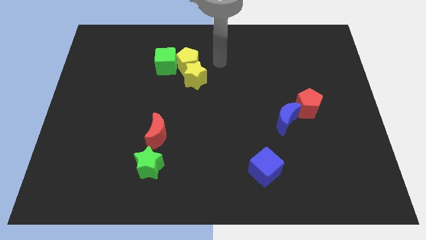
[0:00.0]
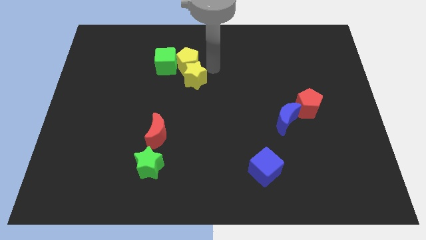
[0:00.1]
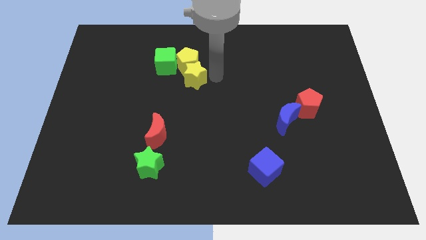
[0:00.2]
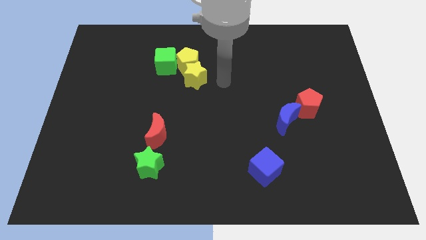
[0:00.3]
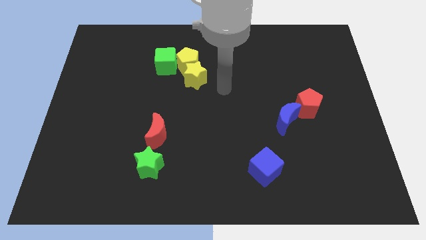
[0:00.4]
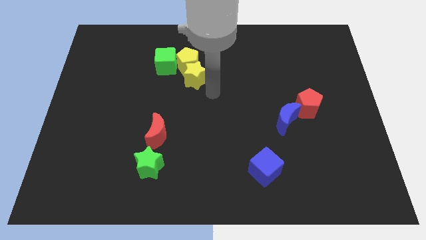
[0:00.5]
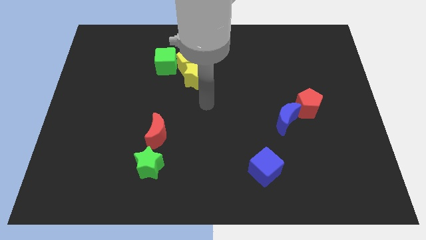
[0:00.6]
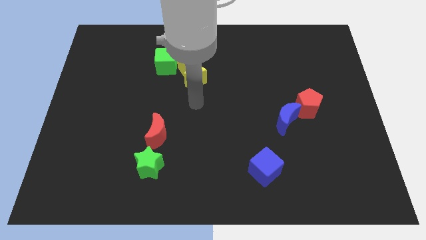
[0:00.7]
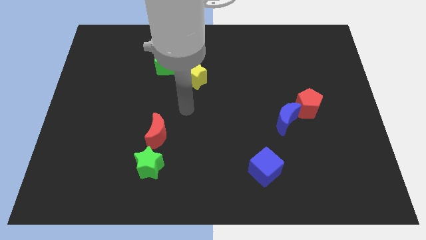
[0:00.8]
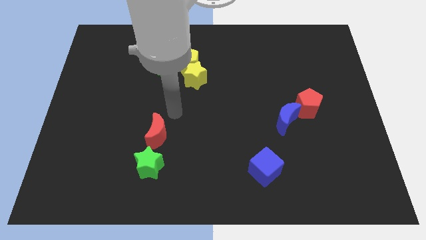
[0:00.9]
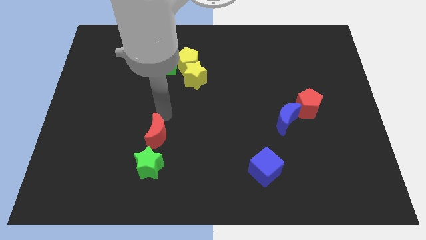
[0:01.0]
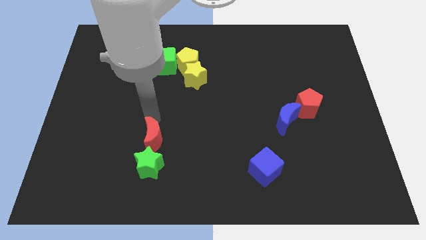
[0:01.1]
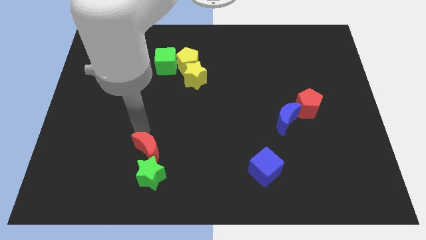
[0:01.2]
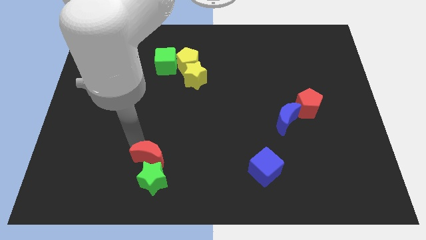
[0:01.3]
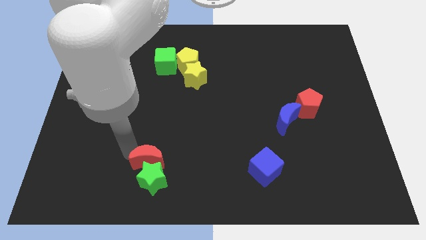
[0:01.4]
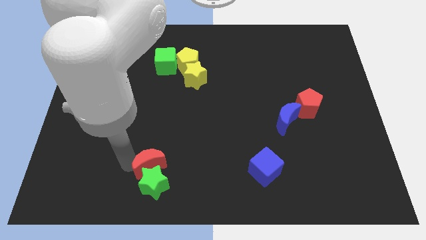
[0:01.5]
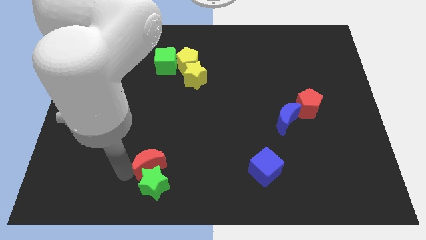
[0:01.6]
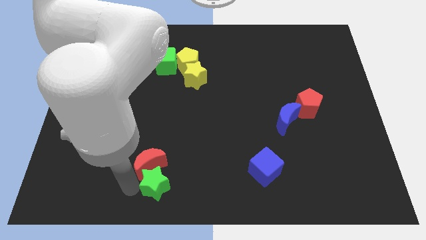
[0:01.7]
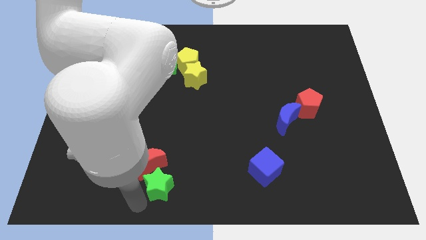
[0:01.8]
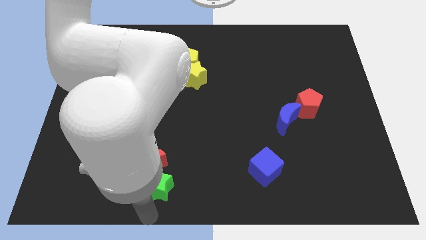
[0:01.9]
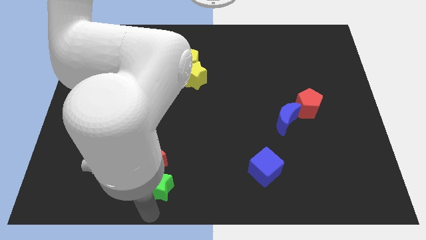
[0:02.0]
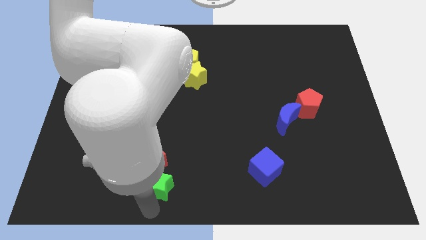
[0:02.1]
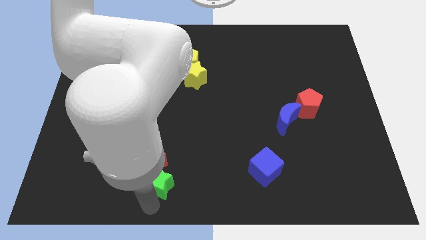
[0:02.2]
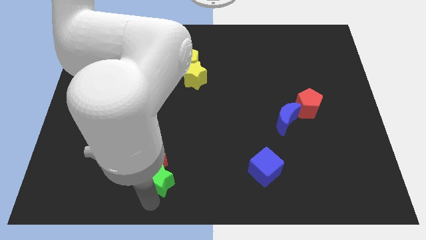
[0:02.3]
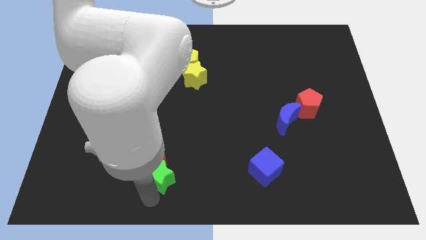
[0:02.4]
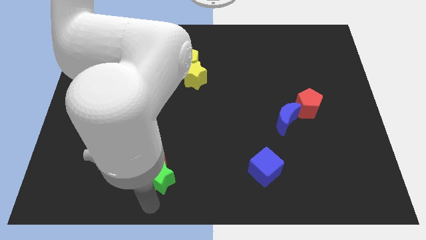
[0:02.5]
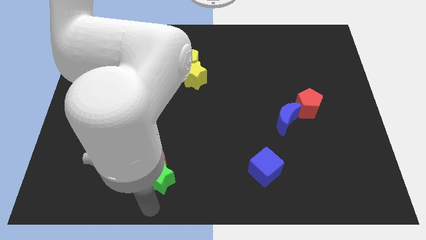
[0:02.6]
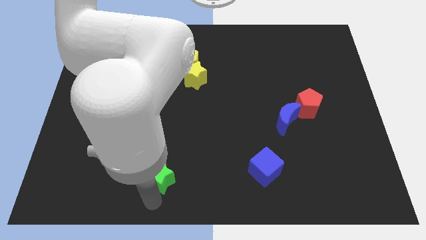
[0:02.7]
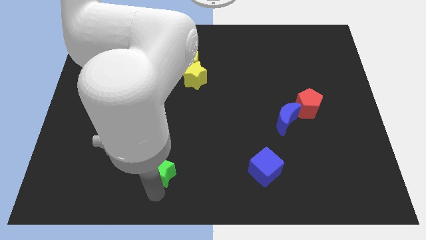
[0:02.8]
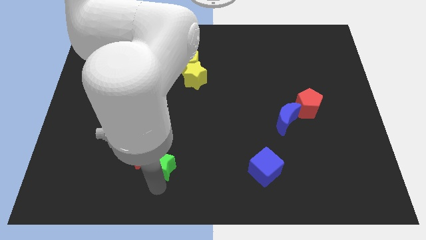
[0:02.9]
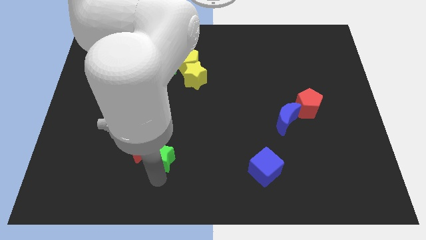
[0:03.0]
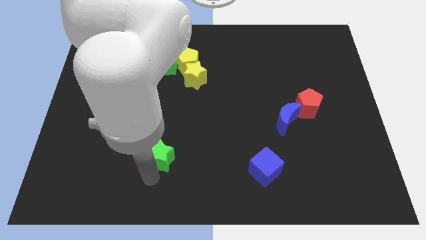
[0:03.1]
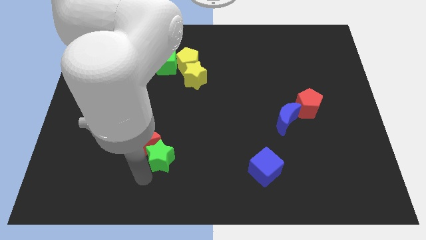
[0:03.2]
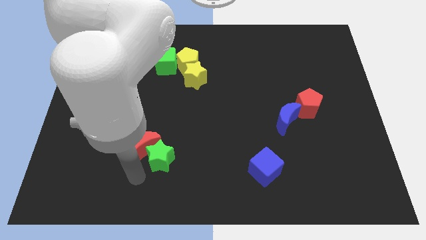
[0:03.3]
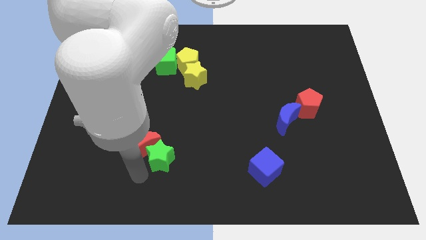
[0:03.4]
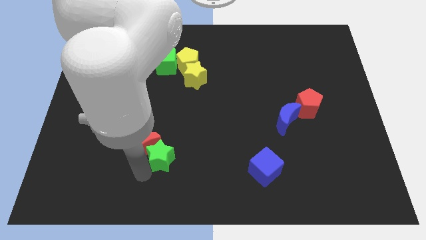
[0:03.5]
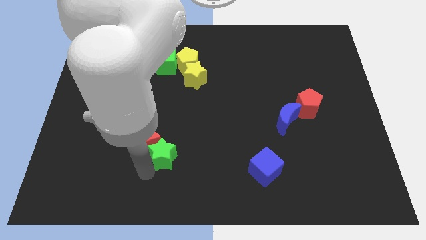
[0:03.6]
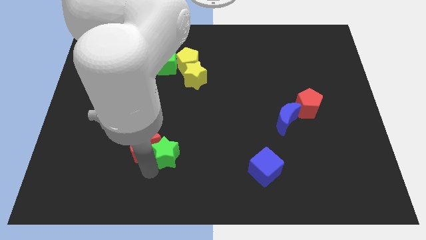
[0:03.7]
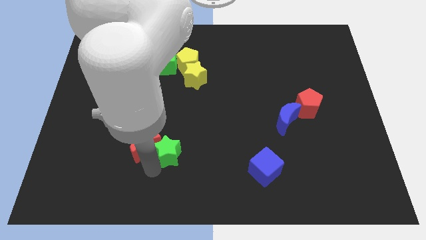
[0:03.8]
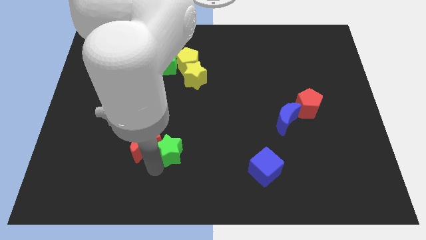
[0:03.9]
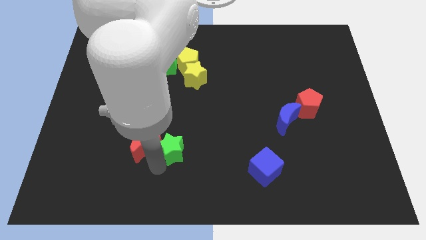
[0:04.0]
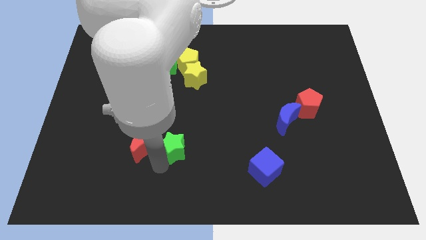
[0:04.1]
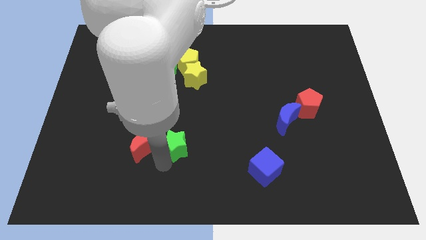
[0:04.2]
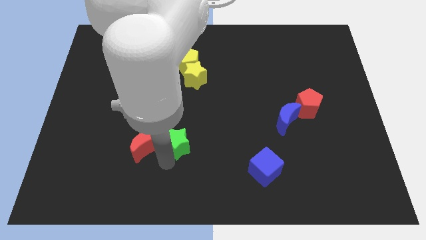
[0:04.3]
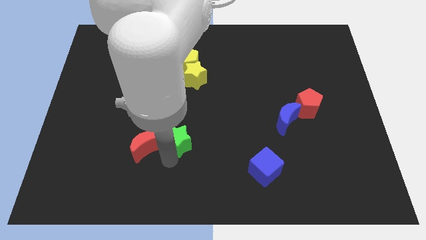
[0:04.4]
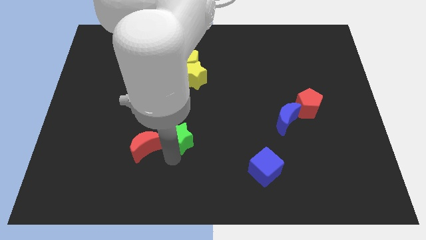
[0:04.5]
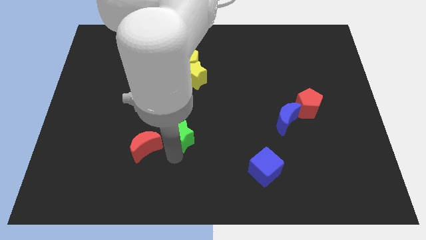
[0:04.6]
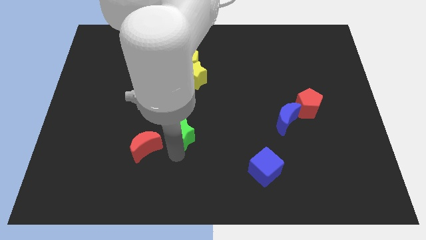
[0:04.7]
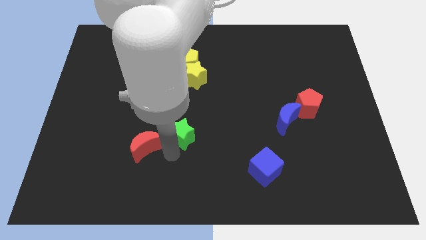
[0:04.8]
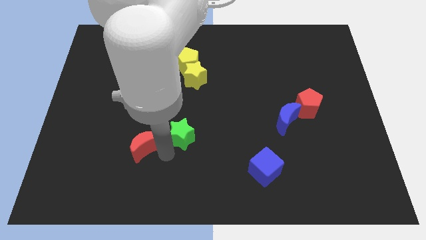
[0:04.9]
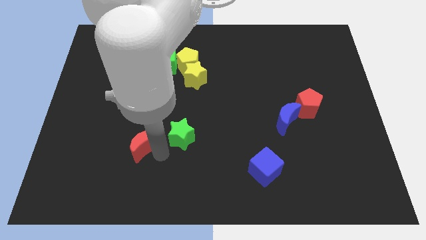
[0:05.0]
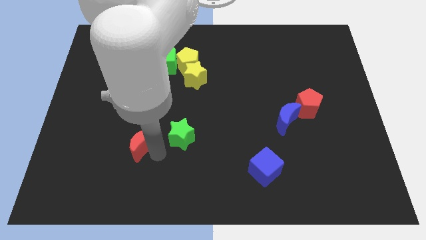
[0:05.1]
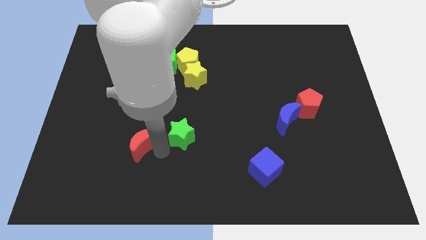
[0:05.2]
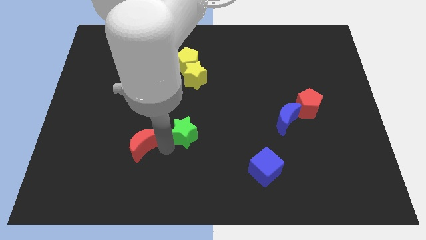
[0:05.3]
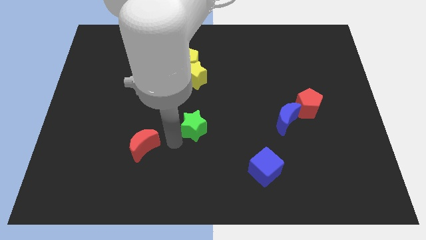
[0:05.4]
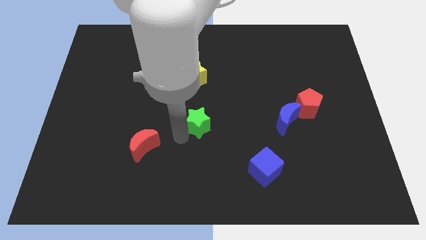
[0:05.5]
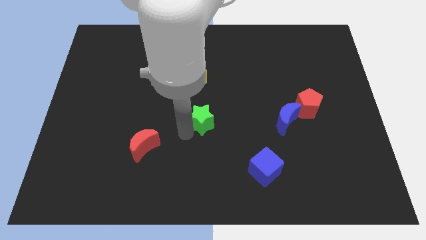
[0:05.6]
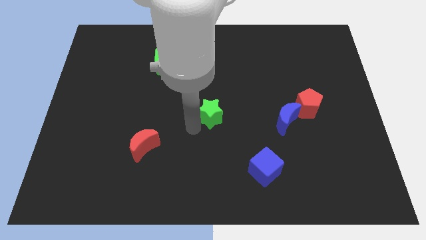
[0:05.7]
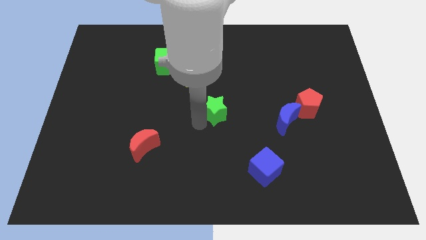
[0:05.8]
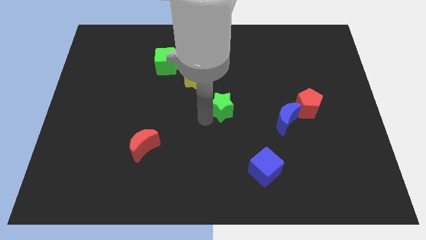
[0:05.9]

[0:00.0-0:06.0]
slide the green star upwards and right diagonally

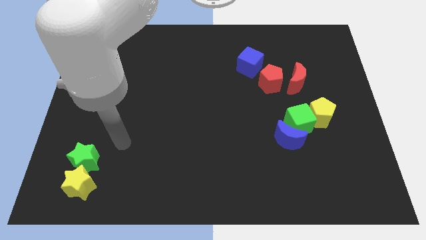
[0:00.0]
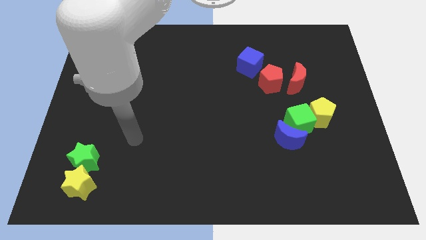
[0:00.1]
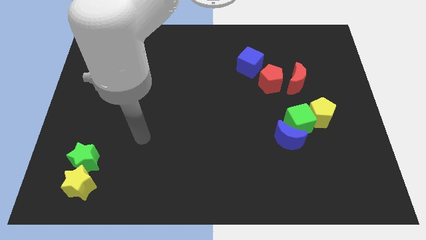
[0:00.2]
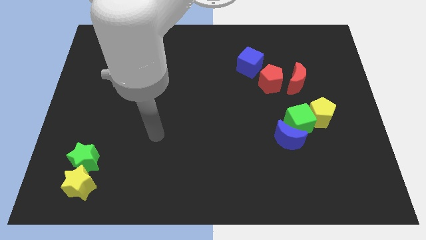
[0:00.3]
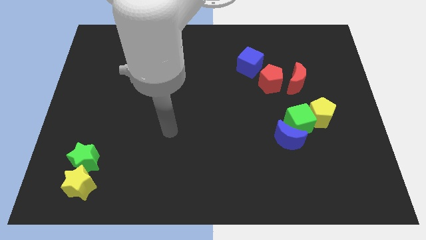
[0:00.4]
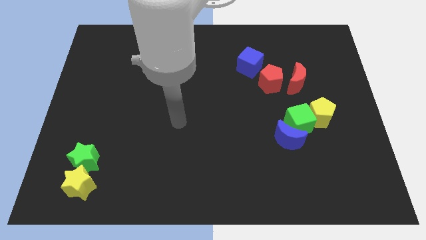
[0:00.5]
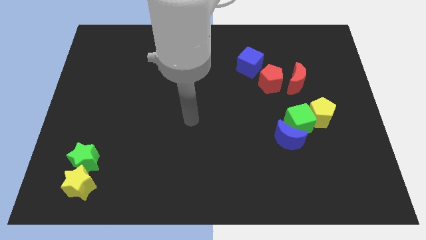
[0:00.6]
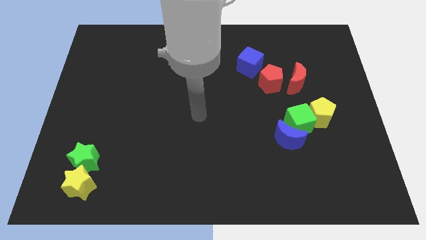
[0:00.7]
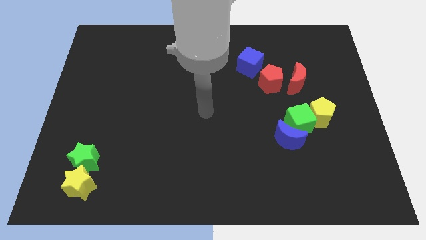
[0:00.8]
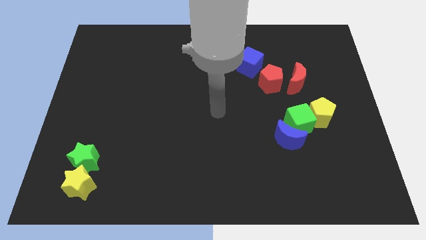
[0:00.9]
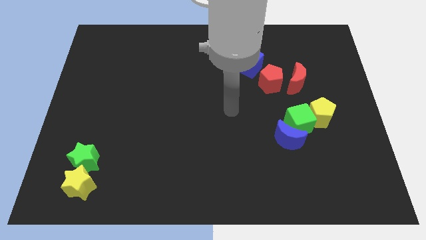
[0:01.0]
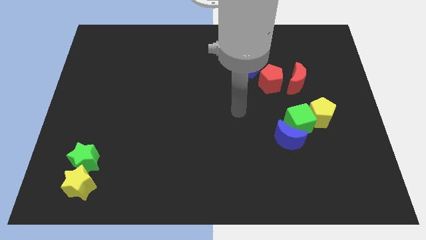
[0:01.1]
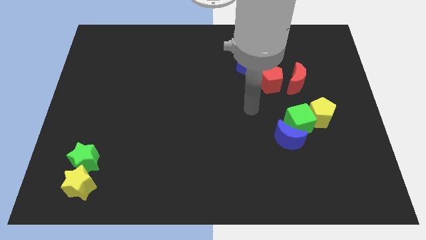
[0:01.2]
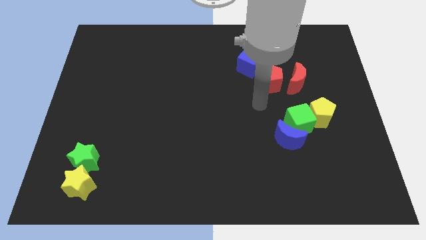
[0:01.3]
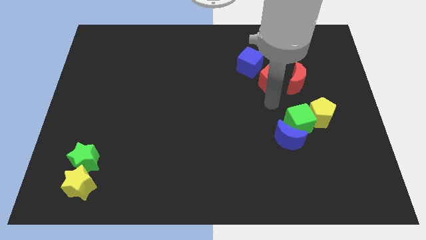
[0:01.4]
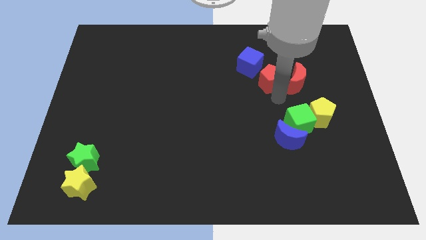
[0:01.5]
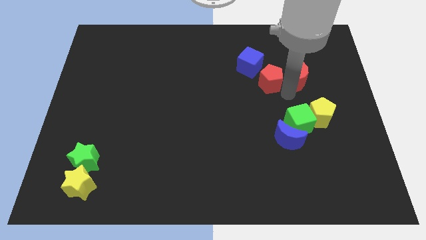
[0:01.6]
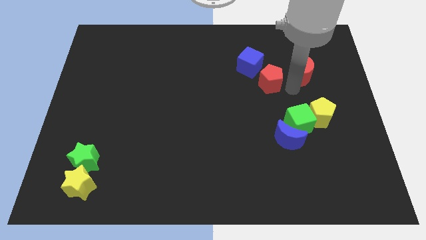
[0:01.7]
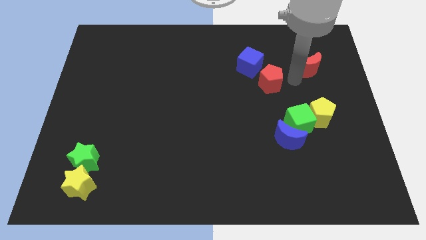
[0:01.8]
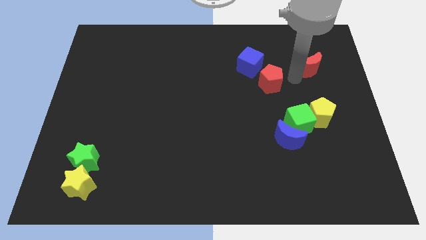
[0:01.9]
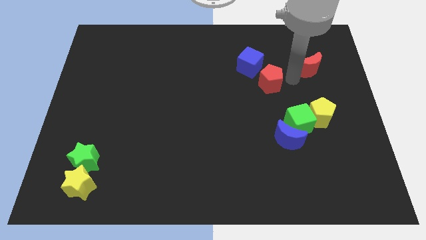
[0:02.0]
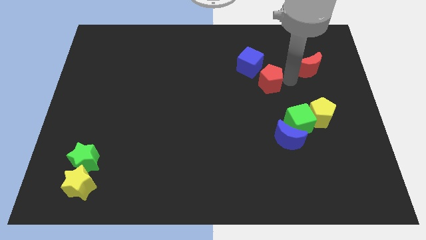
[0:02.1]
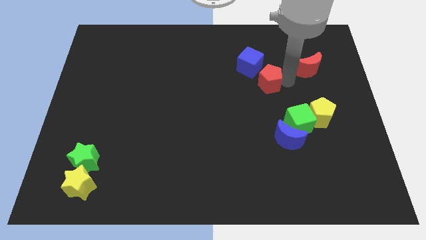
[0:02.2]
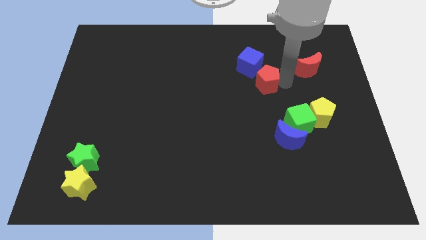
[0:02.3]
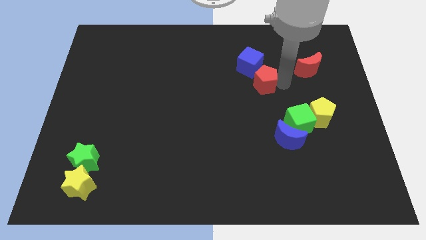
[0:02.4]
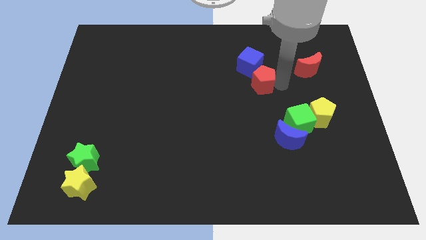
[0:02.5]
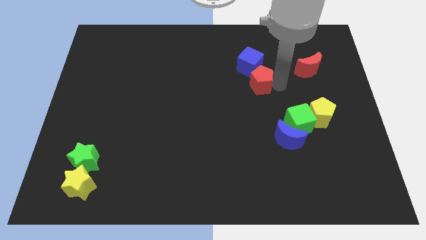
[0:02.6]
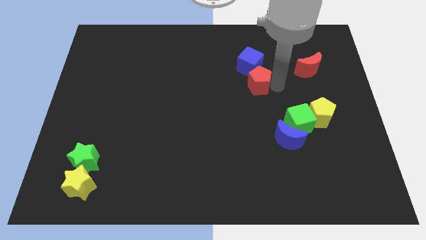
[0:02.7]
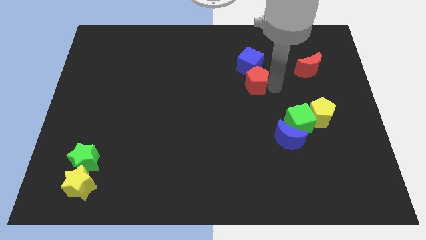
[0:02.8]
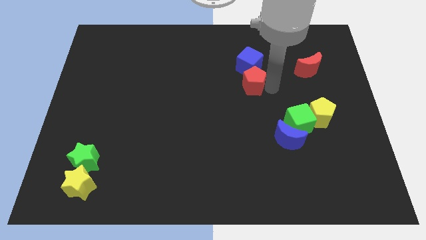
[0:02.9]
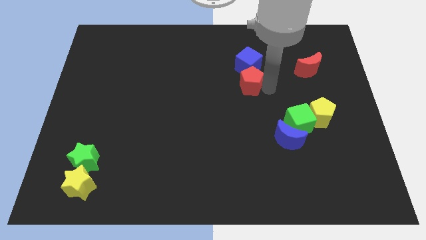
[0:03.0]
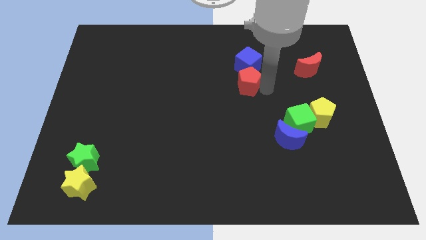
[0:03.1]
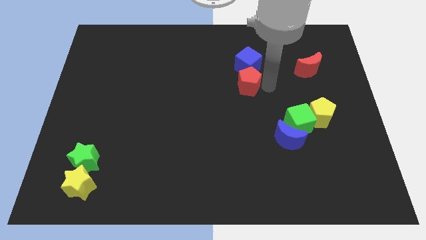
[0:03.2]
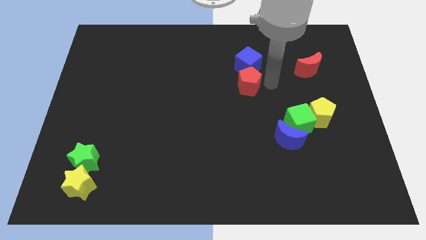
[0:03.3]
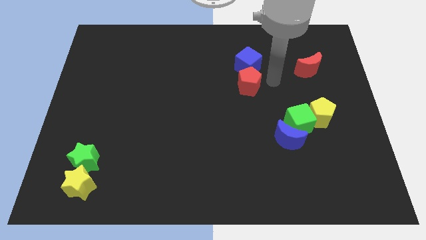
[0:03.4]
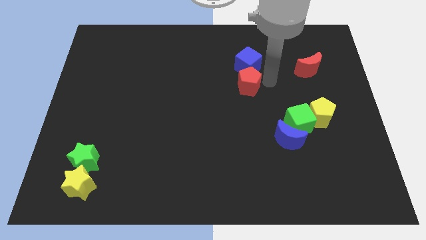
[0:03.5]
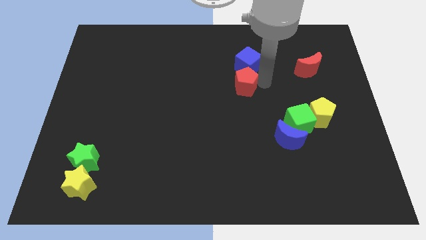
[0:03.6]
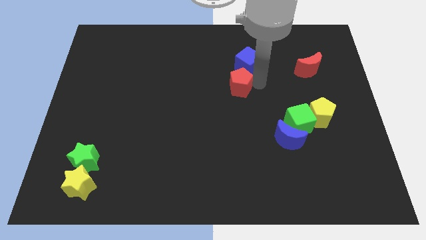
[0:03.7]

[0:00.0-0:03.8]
slightly slide the red pentagon to the left
